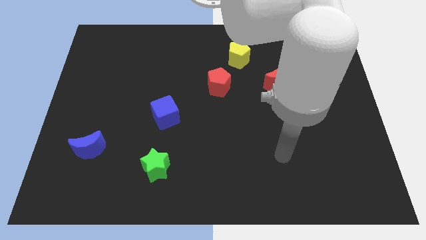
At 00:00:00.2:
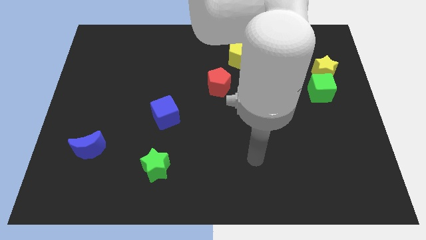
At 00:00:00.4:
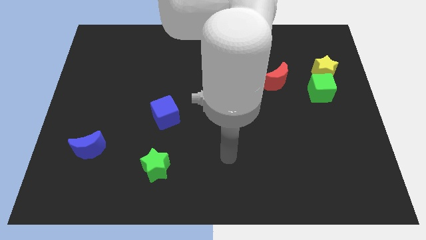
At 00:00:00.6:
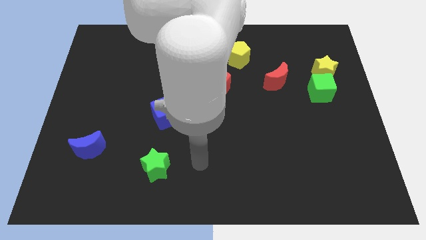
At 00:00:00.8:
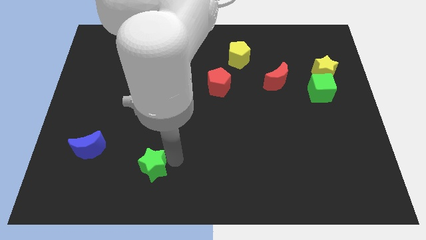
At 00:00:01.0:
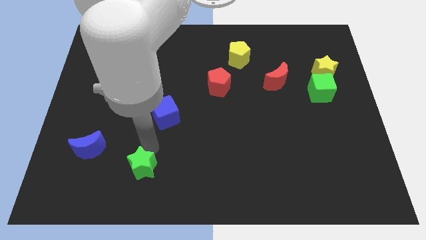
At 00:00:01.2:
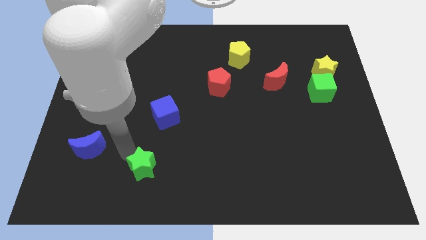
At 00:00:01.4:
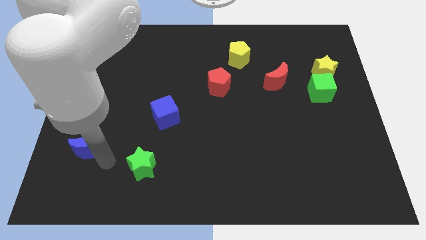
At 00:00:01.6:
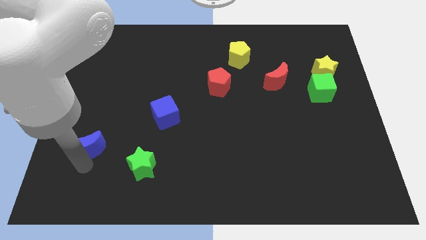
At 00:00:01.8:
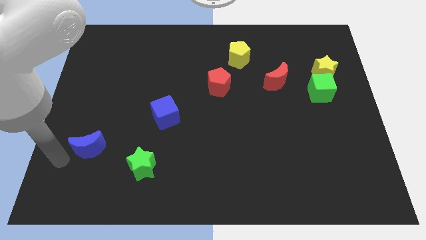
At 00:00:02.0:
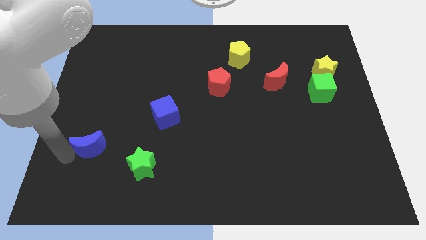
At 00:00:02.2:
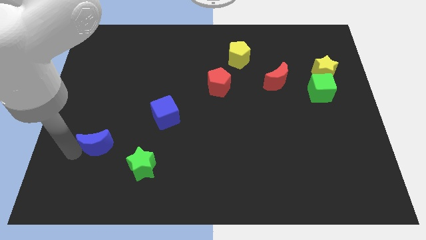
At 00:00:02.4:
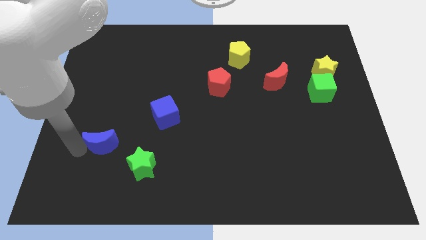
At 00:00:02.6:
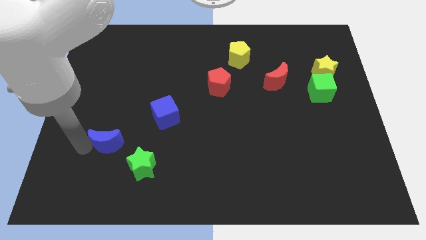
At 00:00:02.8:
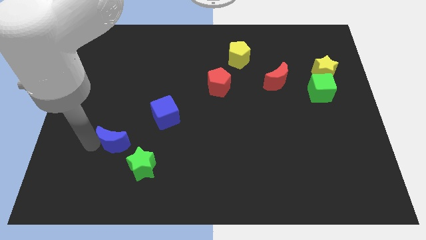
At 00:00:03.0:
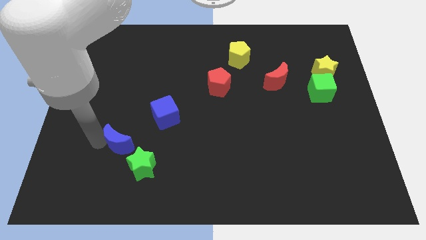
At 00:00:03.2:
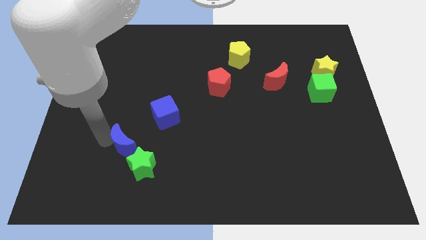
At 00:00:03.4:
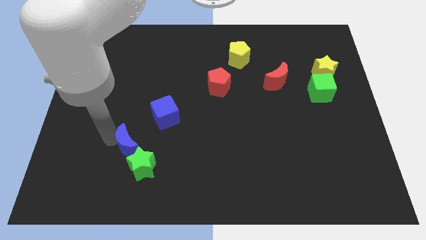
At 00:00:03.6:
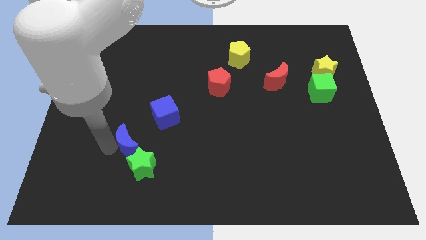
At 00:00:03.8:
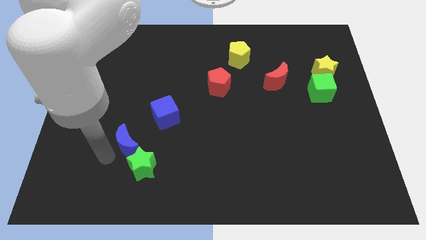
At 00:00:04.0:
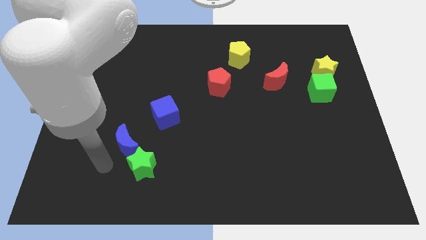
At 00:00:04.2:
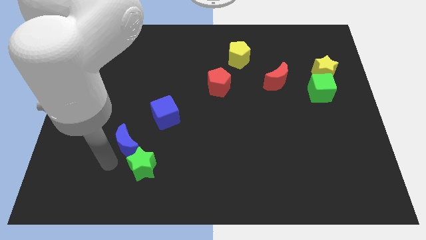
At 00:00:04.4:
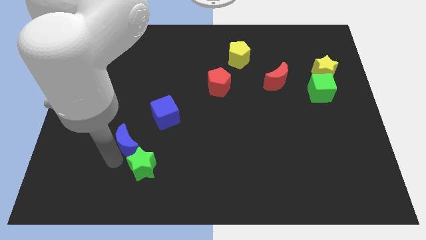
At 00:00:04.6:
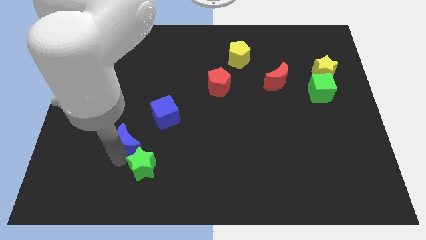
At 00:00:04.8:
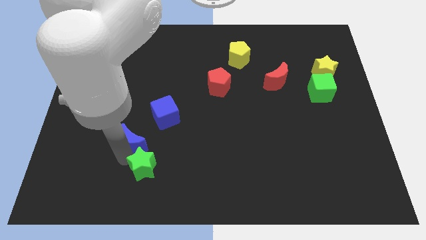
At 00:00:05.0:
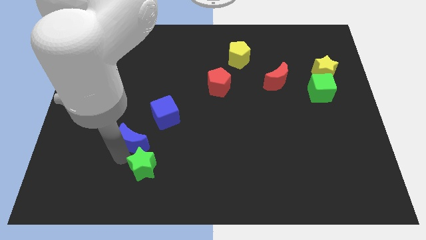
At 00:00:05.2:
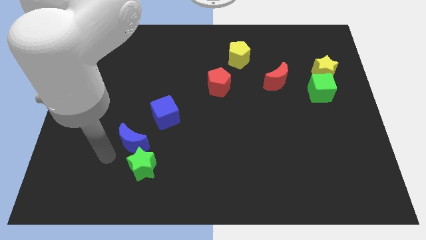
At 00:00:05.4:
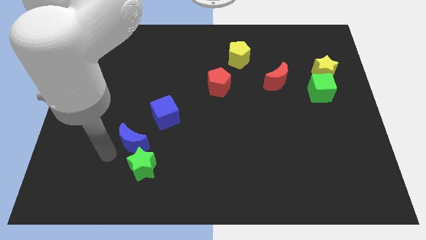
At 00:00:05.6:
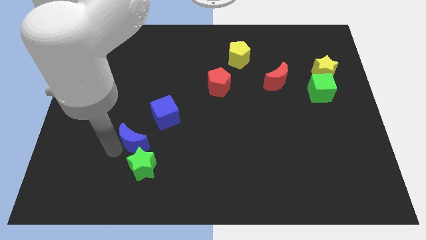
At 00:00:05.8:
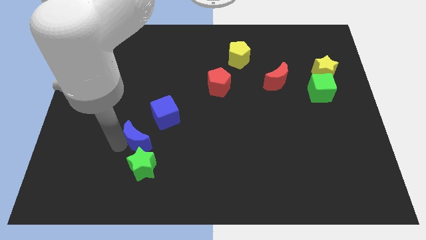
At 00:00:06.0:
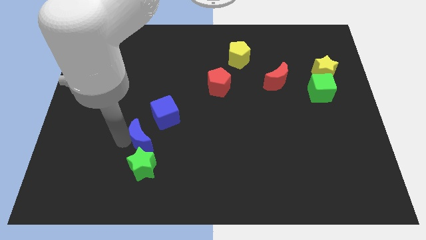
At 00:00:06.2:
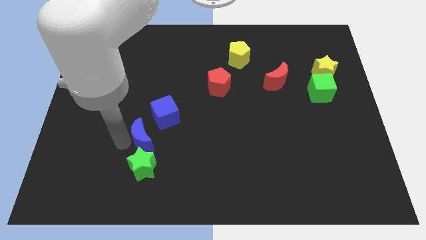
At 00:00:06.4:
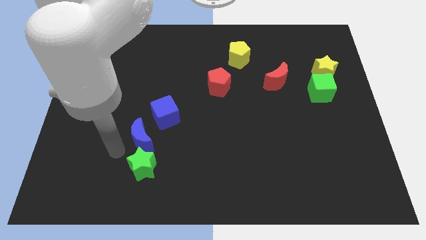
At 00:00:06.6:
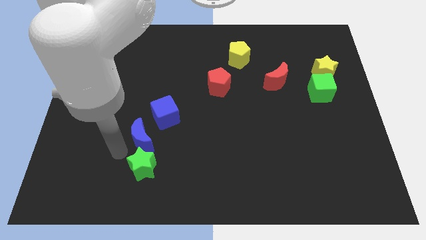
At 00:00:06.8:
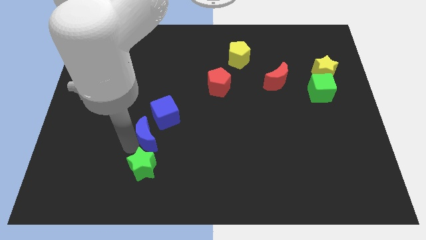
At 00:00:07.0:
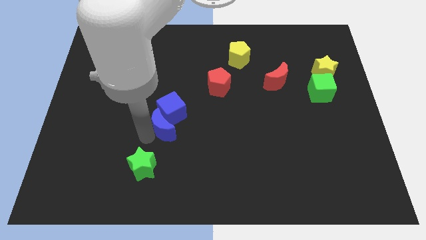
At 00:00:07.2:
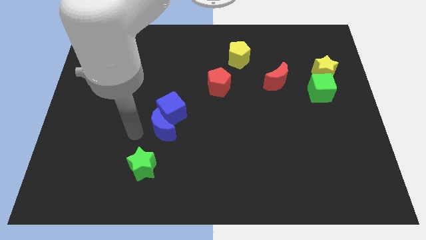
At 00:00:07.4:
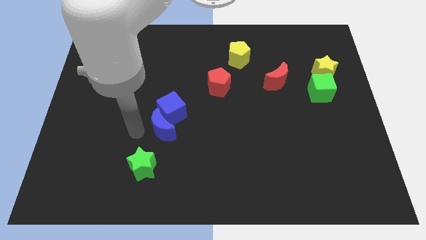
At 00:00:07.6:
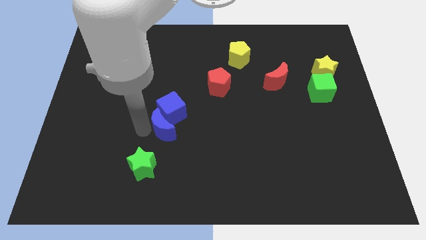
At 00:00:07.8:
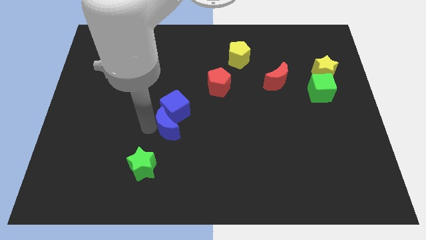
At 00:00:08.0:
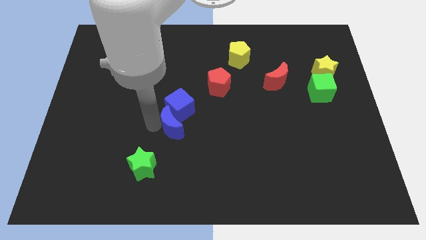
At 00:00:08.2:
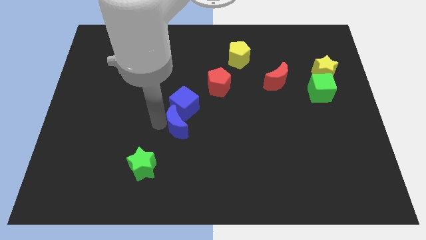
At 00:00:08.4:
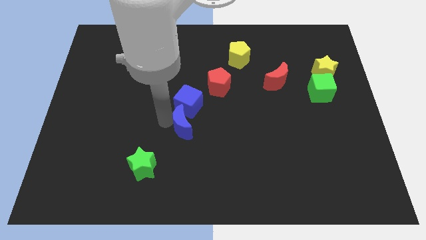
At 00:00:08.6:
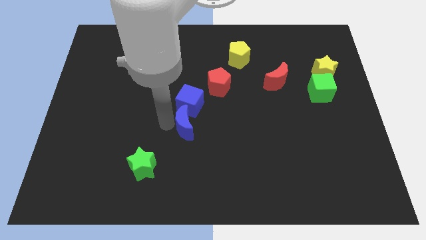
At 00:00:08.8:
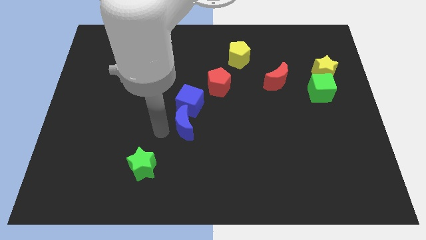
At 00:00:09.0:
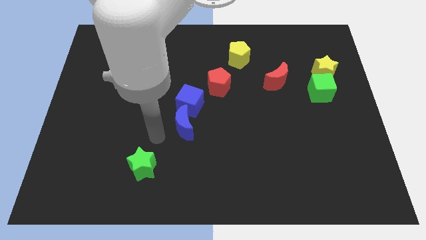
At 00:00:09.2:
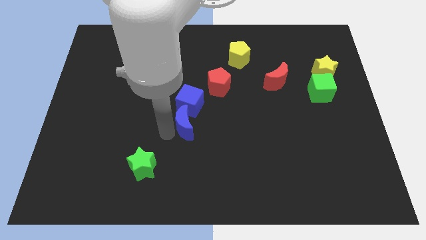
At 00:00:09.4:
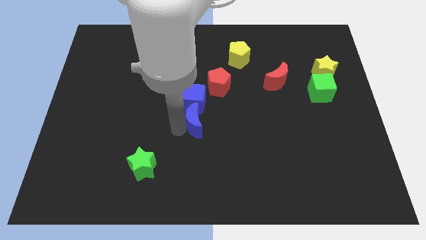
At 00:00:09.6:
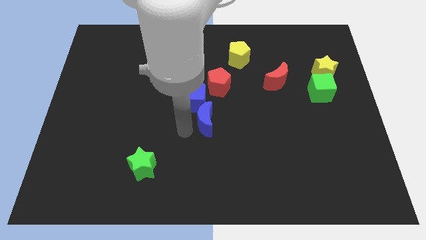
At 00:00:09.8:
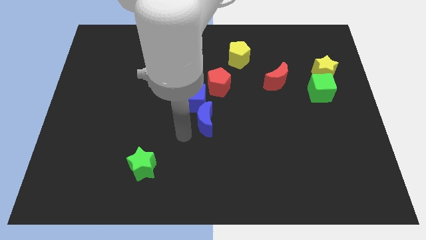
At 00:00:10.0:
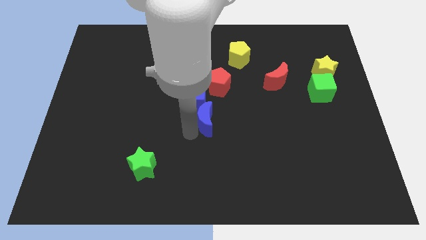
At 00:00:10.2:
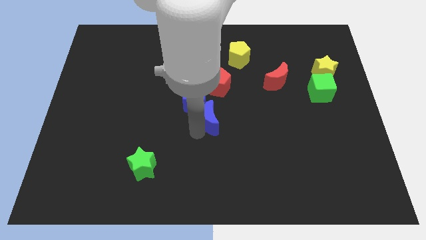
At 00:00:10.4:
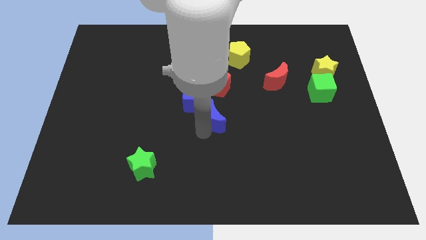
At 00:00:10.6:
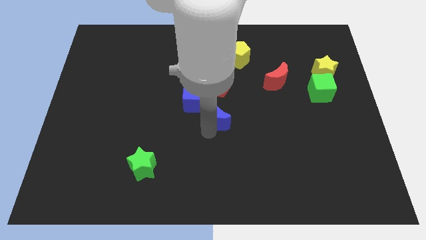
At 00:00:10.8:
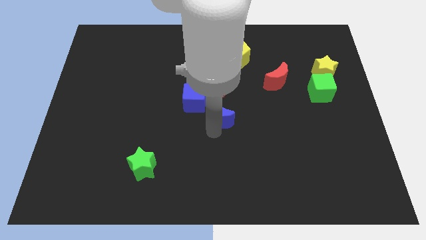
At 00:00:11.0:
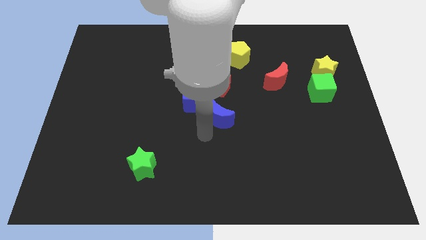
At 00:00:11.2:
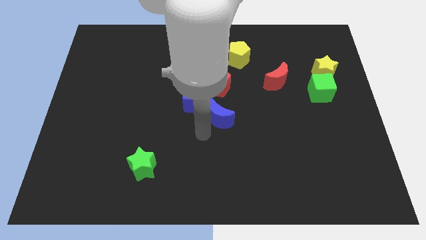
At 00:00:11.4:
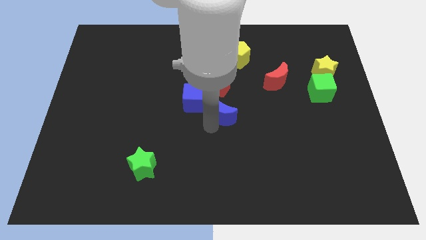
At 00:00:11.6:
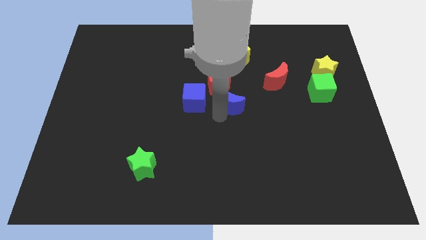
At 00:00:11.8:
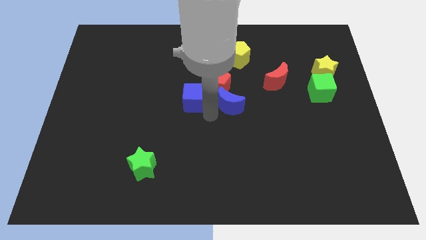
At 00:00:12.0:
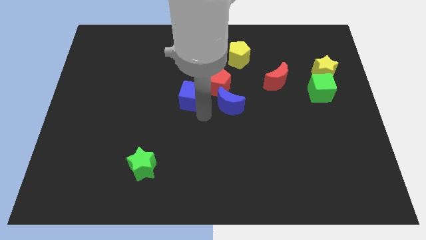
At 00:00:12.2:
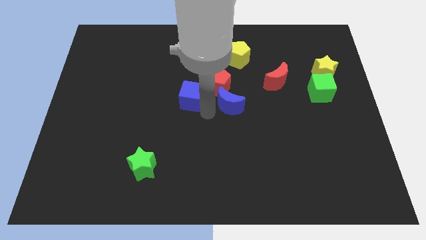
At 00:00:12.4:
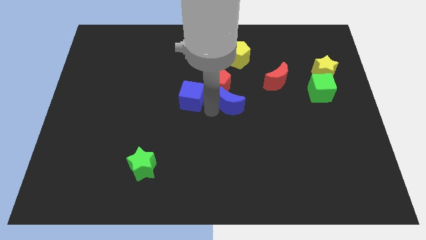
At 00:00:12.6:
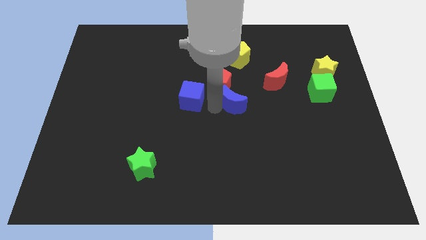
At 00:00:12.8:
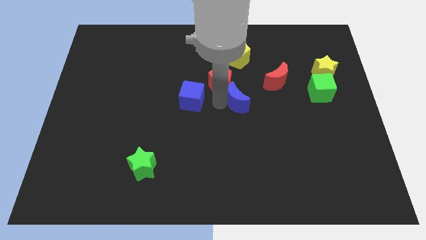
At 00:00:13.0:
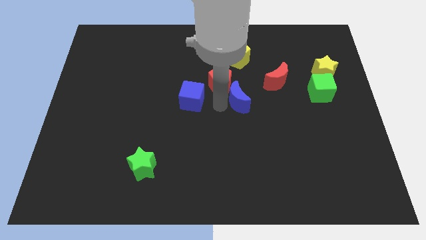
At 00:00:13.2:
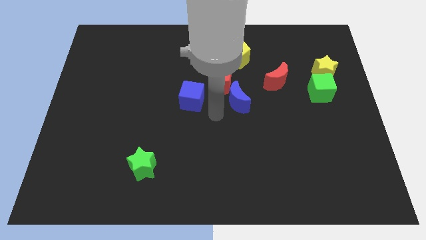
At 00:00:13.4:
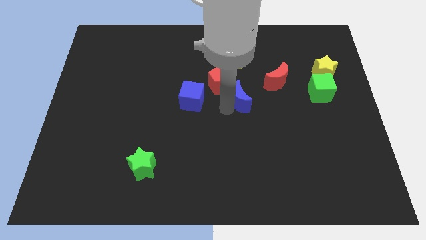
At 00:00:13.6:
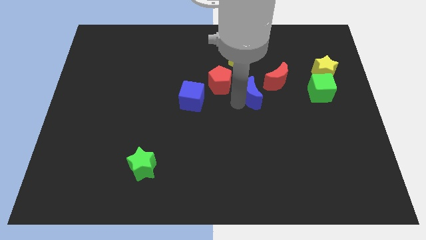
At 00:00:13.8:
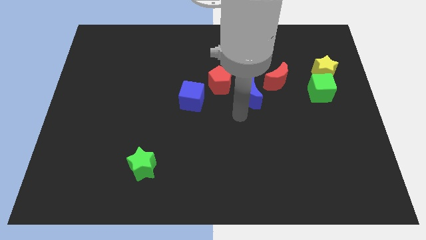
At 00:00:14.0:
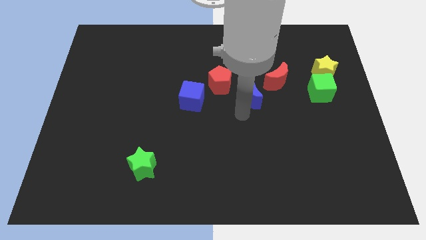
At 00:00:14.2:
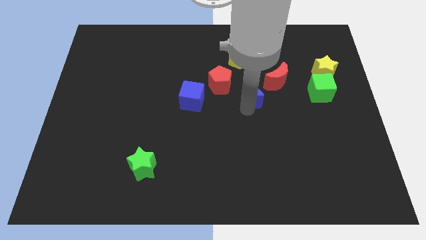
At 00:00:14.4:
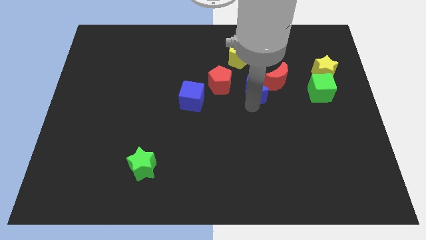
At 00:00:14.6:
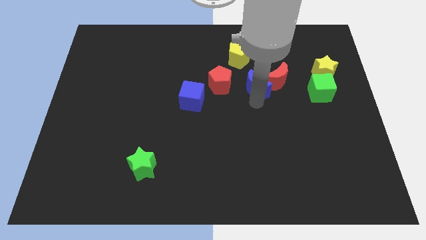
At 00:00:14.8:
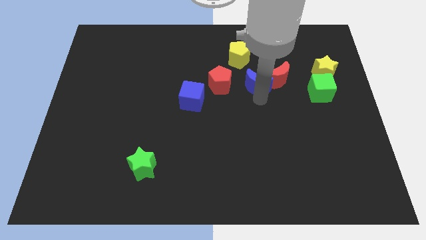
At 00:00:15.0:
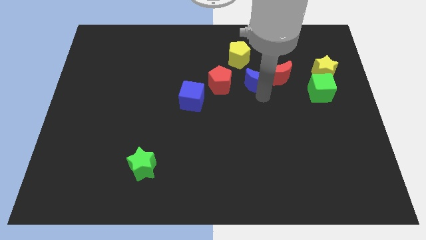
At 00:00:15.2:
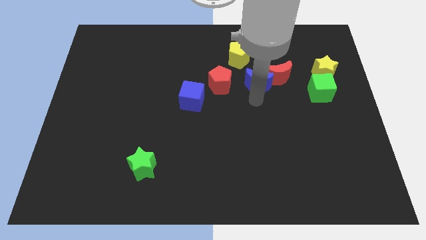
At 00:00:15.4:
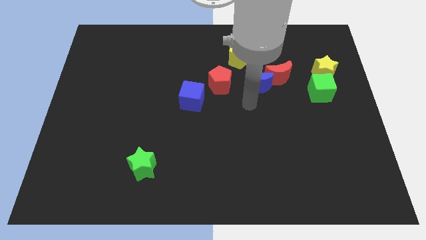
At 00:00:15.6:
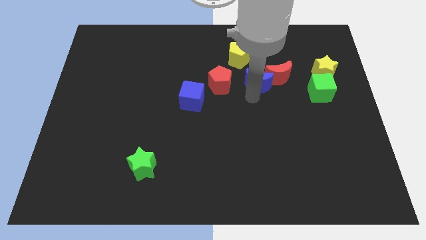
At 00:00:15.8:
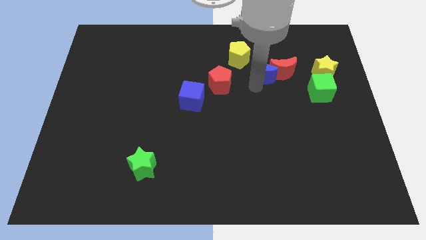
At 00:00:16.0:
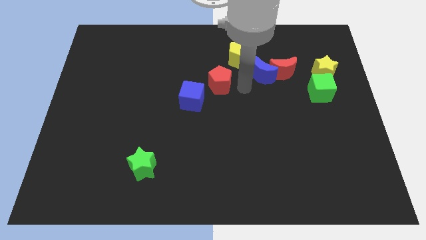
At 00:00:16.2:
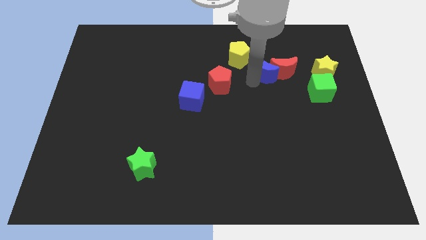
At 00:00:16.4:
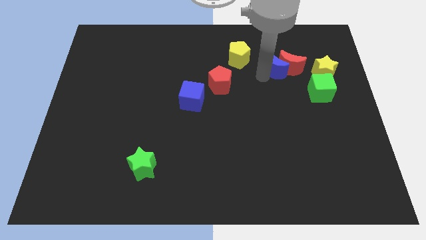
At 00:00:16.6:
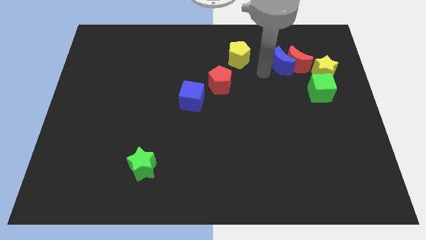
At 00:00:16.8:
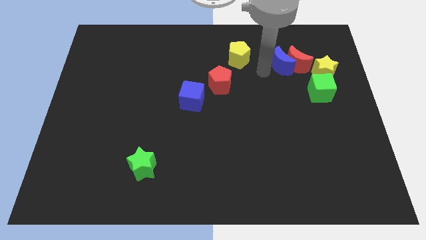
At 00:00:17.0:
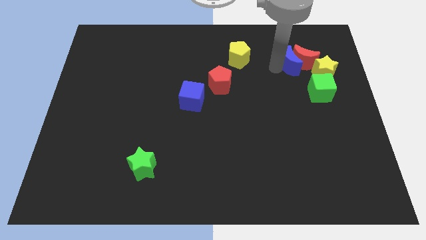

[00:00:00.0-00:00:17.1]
move the blue moon to the top left side of the yellow star
